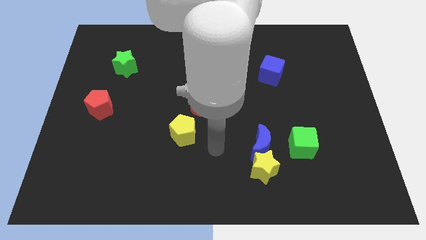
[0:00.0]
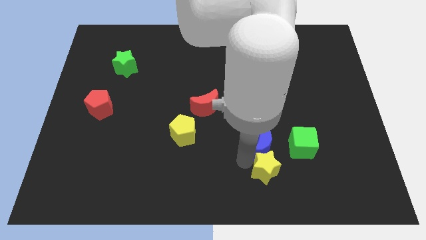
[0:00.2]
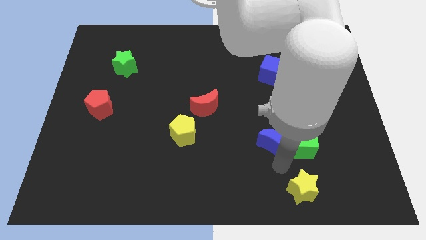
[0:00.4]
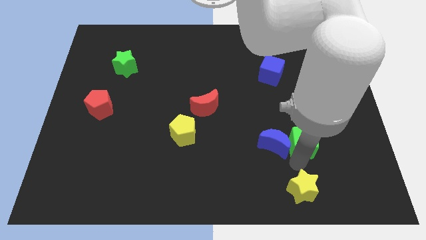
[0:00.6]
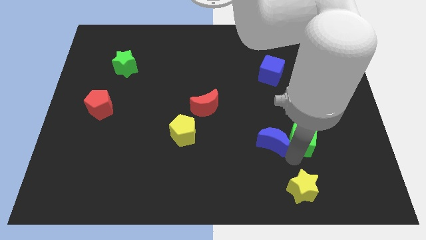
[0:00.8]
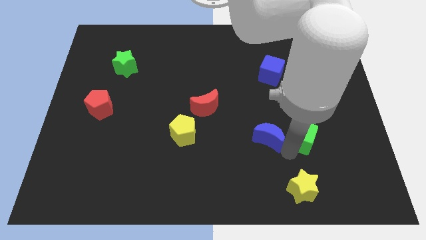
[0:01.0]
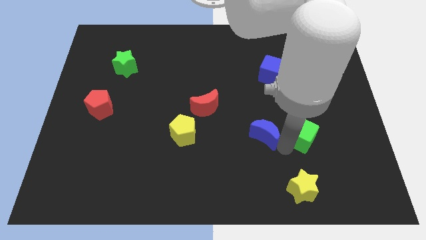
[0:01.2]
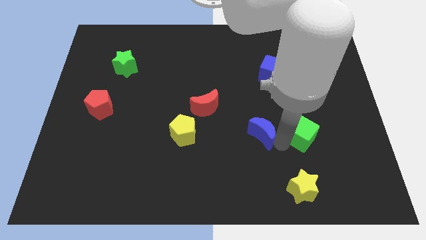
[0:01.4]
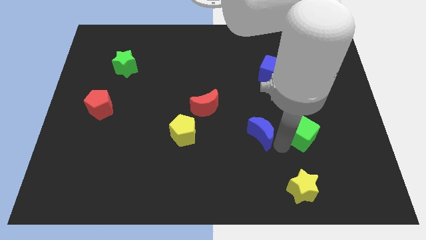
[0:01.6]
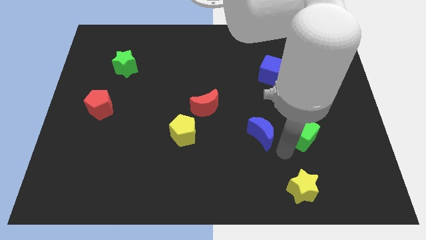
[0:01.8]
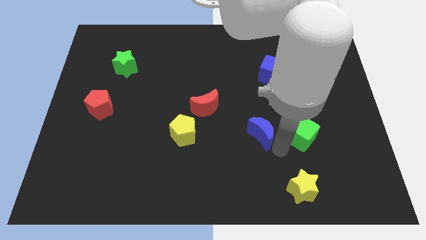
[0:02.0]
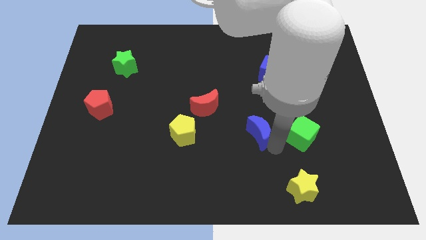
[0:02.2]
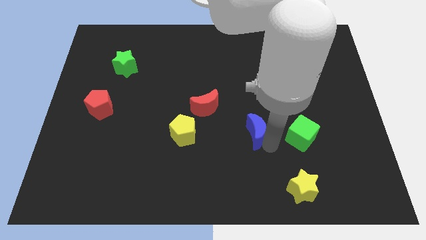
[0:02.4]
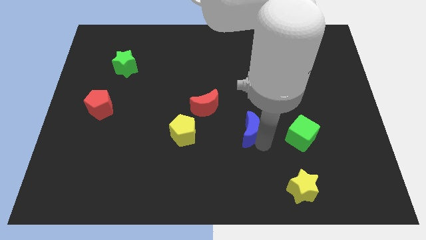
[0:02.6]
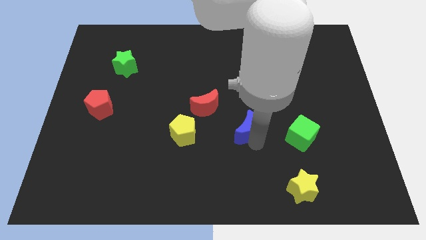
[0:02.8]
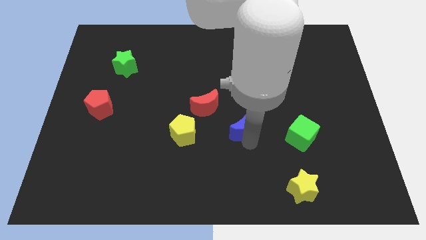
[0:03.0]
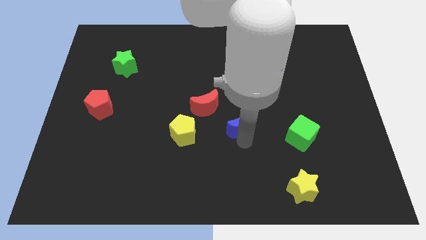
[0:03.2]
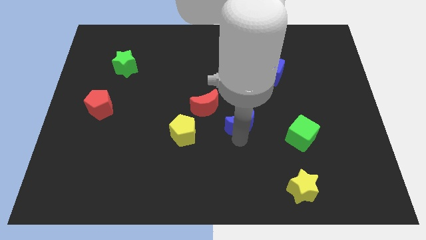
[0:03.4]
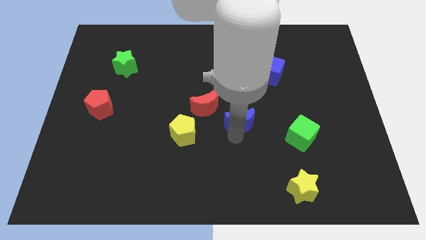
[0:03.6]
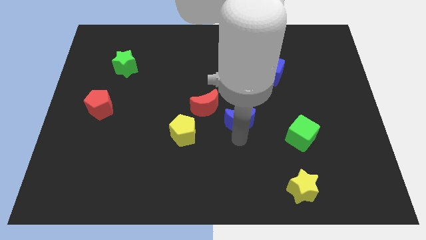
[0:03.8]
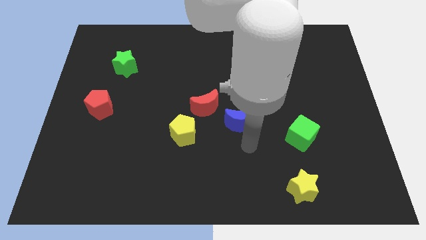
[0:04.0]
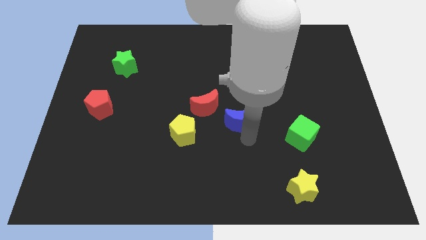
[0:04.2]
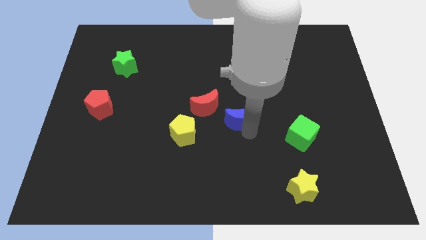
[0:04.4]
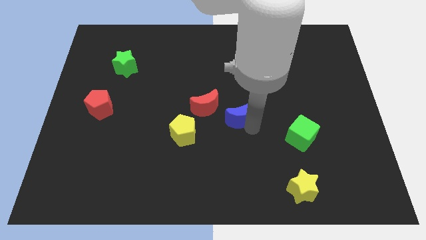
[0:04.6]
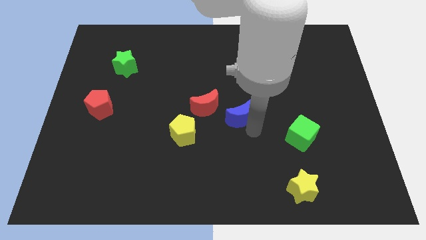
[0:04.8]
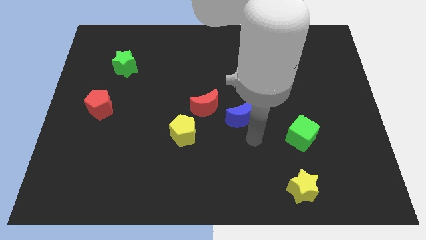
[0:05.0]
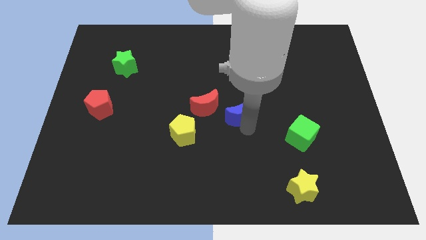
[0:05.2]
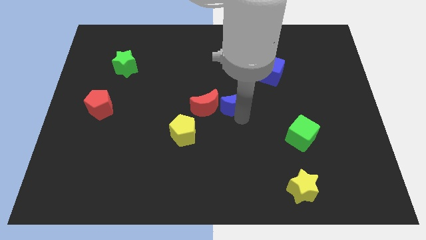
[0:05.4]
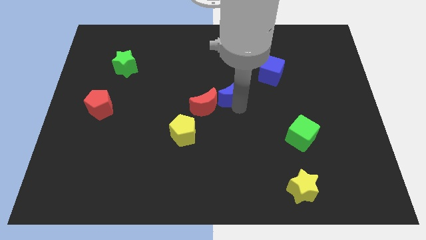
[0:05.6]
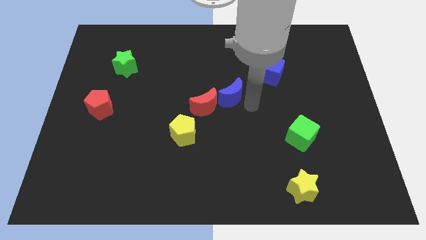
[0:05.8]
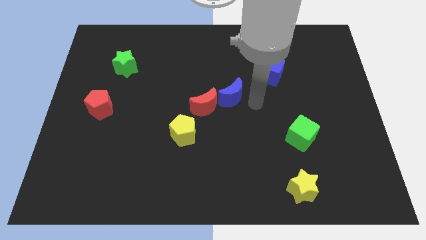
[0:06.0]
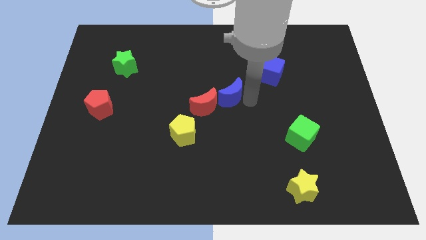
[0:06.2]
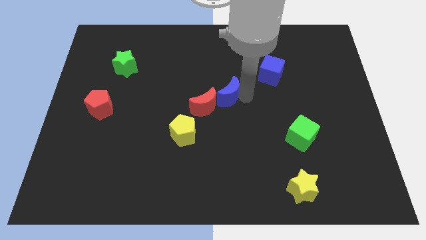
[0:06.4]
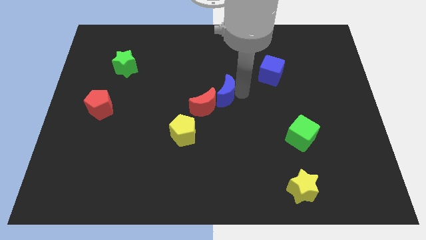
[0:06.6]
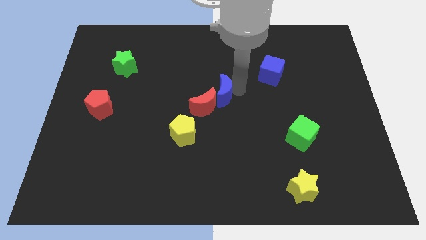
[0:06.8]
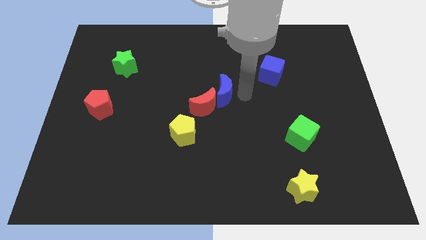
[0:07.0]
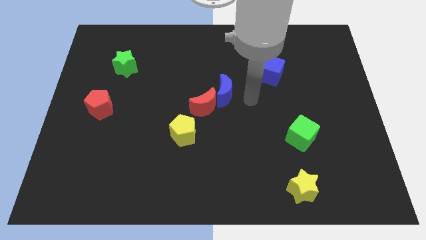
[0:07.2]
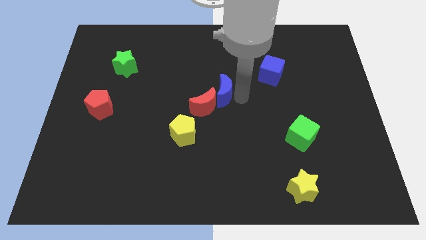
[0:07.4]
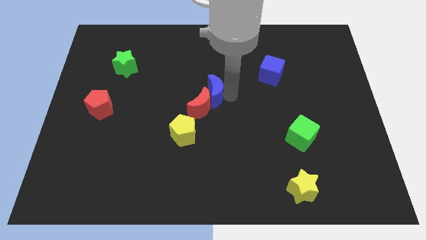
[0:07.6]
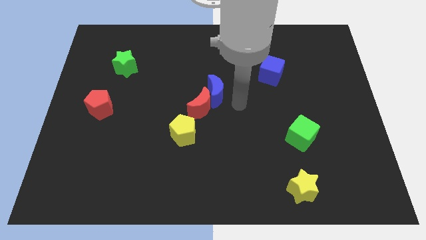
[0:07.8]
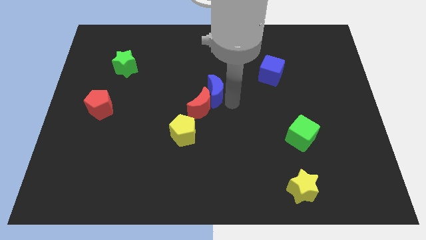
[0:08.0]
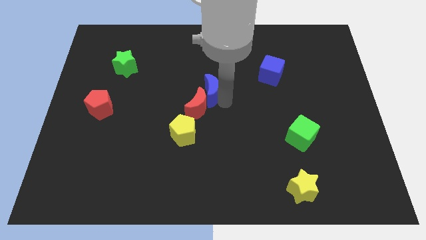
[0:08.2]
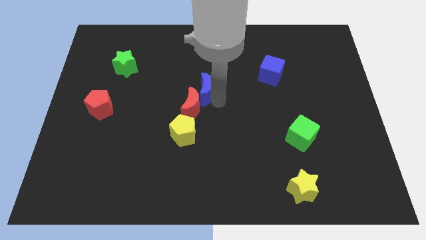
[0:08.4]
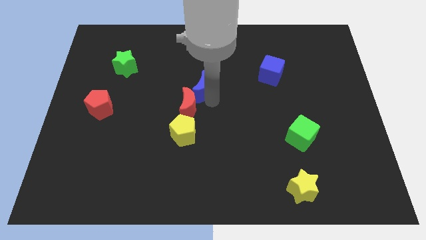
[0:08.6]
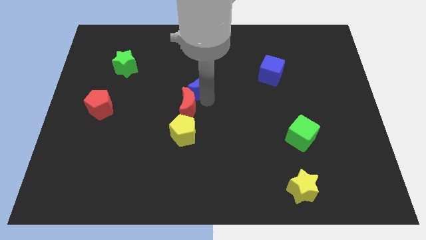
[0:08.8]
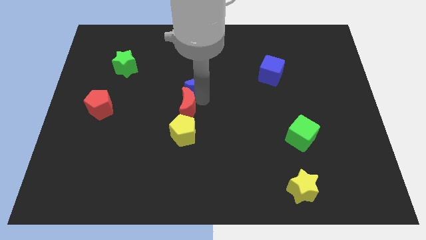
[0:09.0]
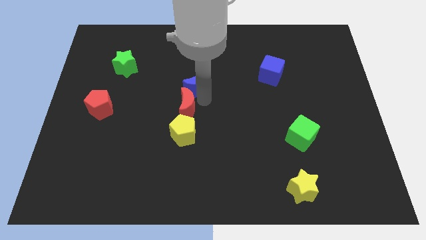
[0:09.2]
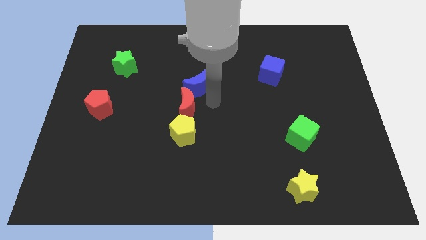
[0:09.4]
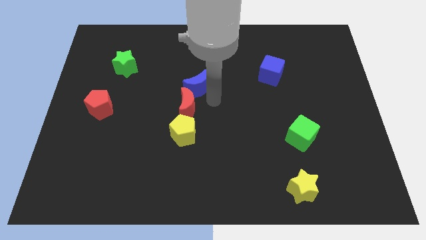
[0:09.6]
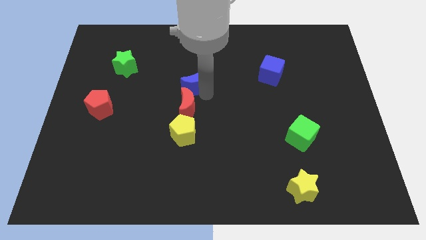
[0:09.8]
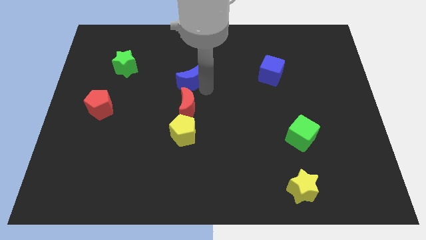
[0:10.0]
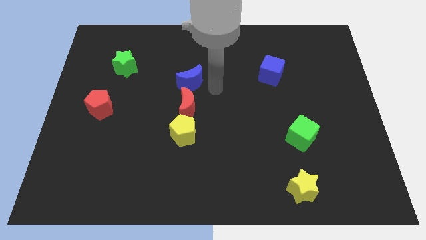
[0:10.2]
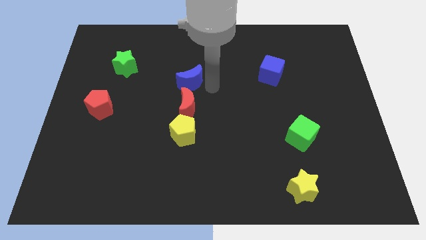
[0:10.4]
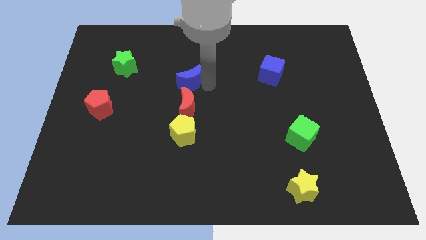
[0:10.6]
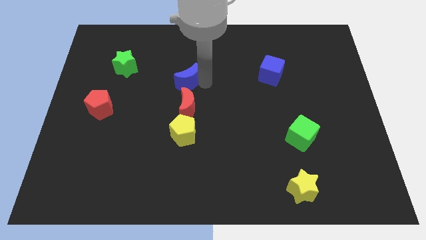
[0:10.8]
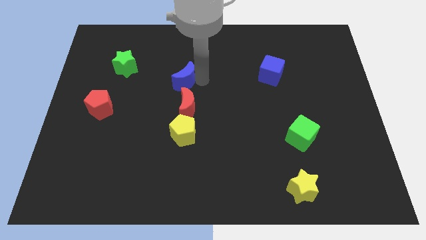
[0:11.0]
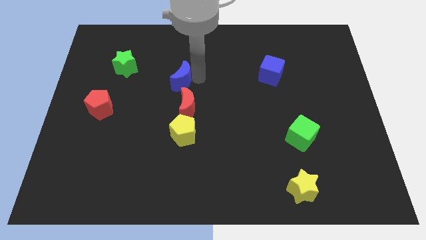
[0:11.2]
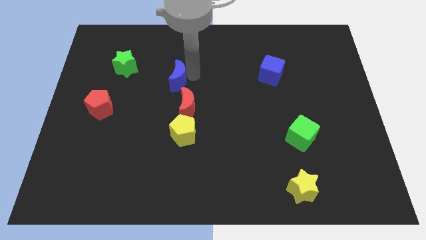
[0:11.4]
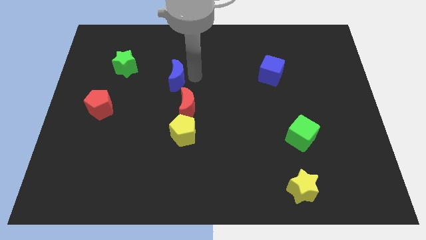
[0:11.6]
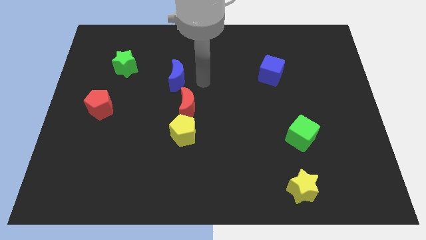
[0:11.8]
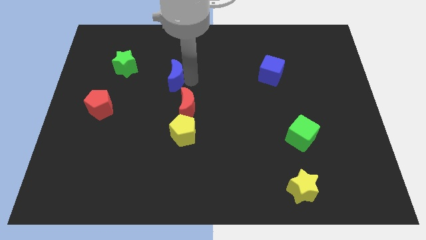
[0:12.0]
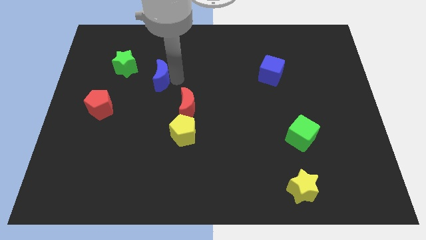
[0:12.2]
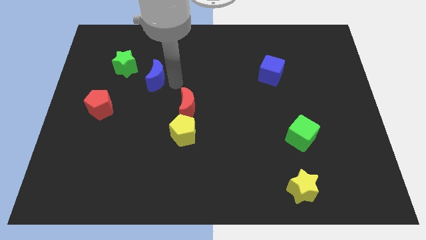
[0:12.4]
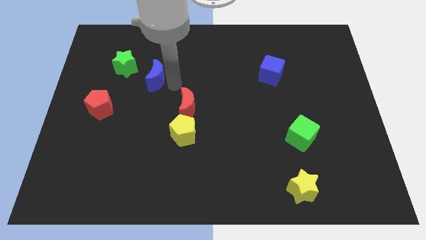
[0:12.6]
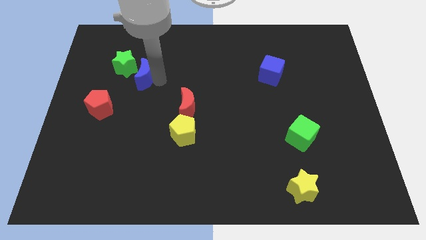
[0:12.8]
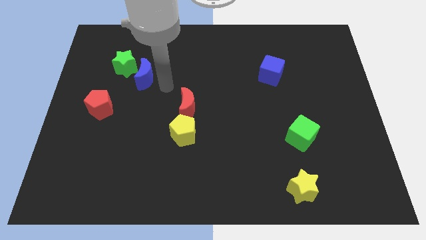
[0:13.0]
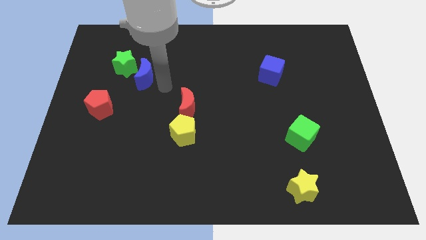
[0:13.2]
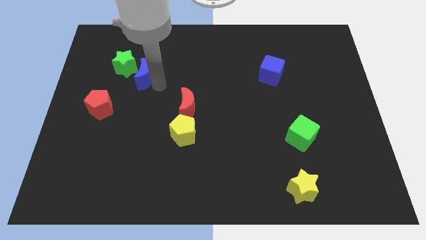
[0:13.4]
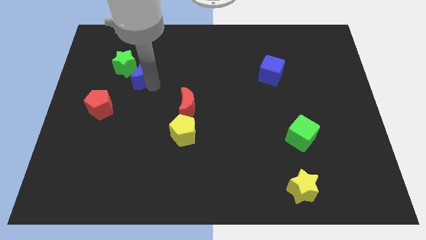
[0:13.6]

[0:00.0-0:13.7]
push the blue moon towards the green star
